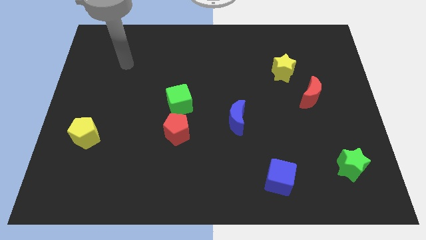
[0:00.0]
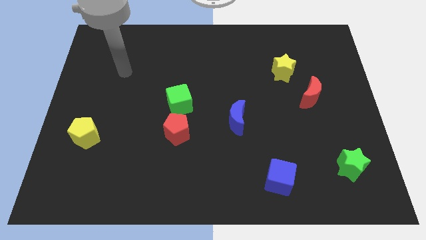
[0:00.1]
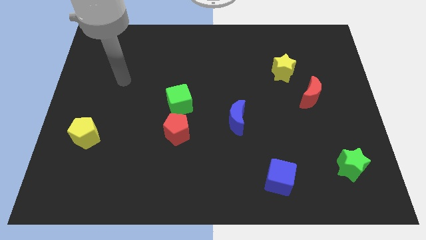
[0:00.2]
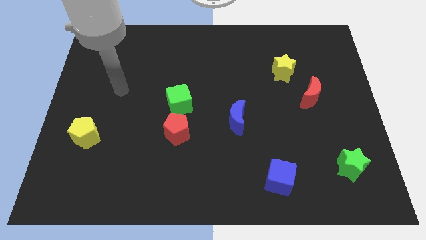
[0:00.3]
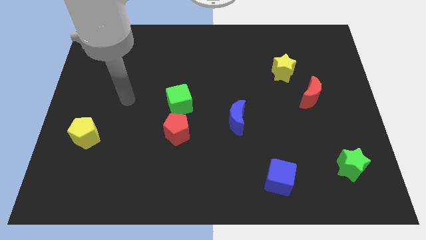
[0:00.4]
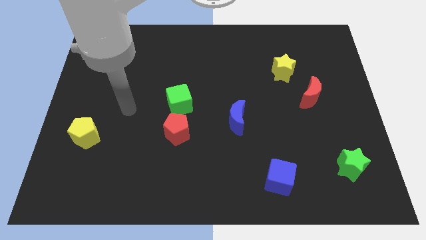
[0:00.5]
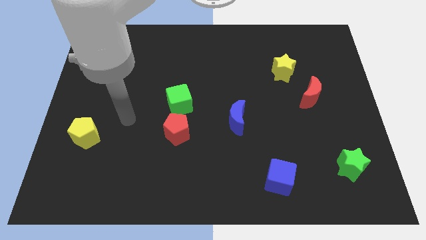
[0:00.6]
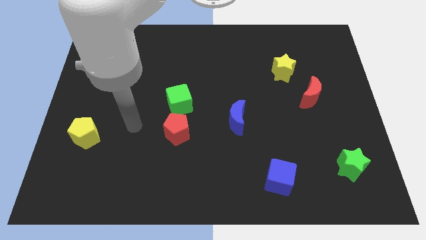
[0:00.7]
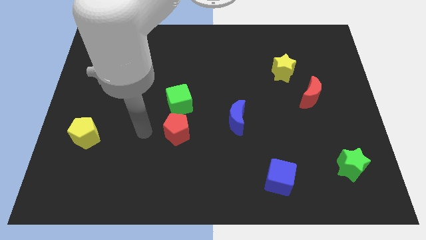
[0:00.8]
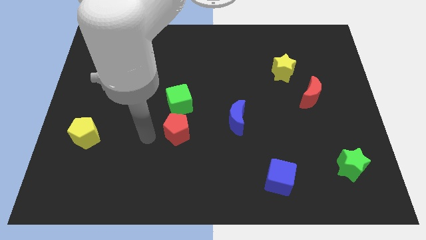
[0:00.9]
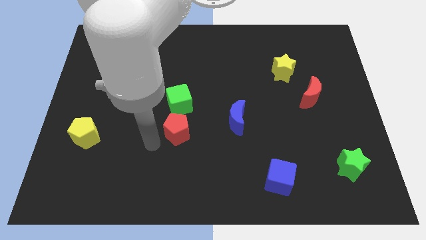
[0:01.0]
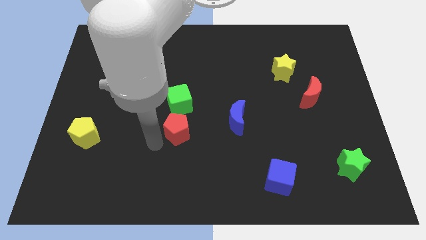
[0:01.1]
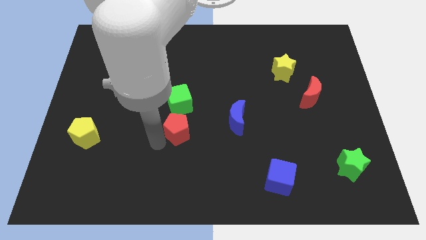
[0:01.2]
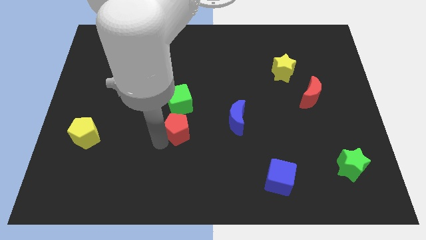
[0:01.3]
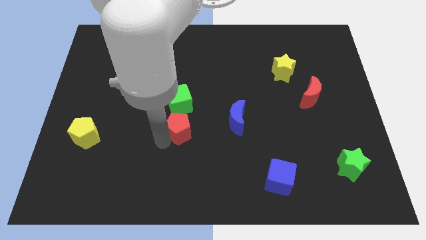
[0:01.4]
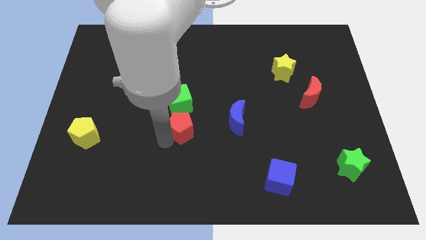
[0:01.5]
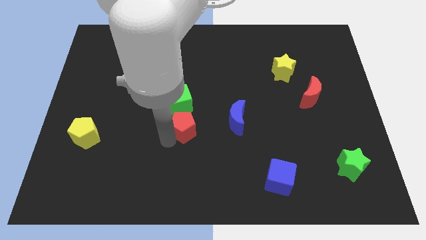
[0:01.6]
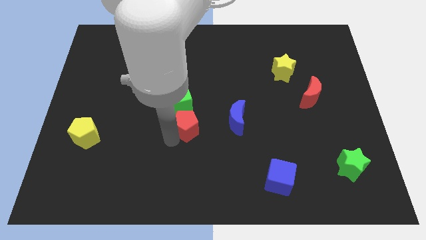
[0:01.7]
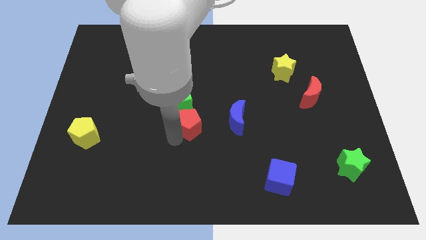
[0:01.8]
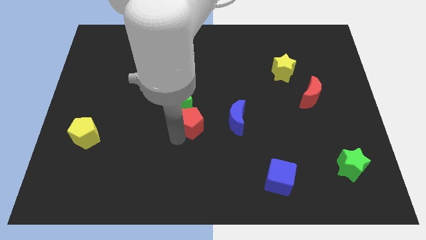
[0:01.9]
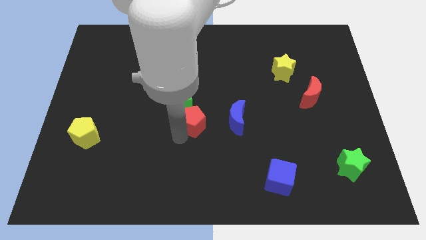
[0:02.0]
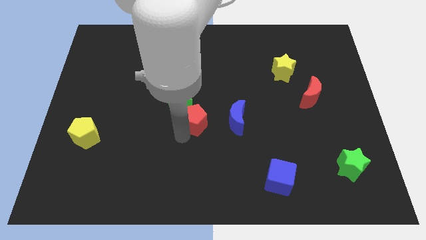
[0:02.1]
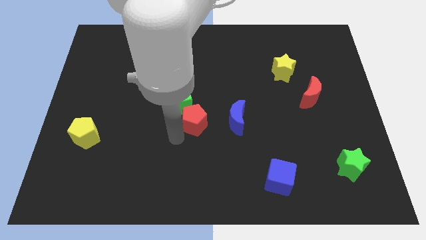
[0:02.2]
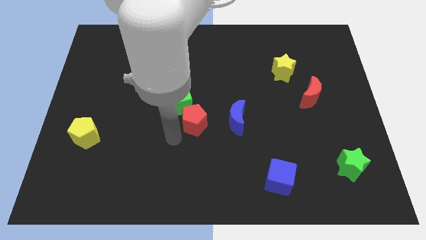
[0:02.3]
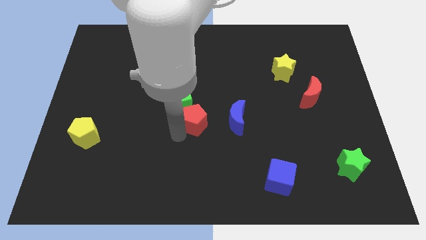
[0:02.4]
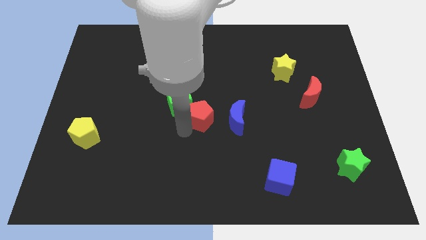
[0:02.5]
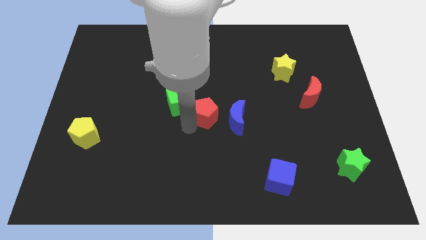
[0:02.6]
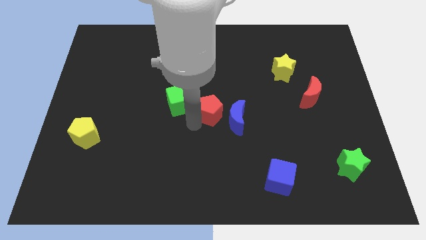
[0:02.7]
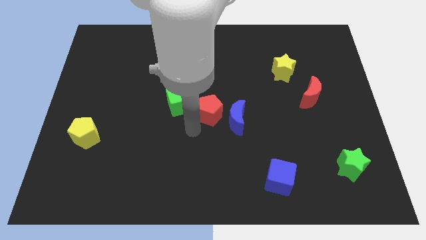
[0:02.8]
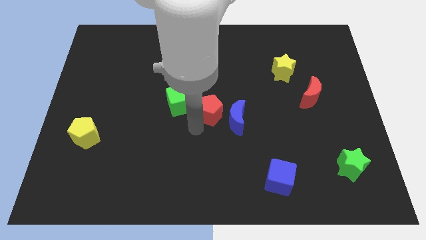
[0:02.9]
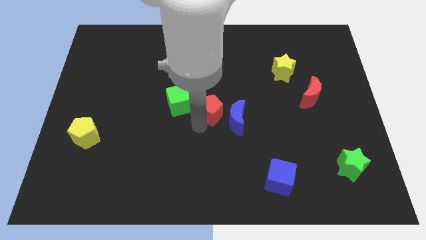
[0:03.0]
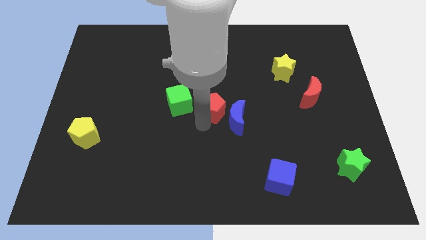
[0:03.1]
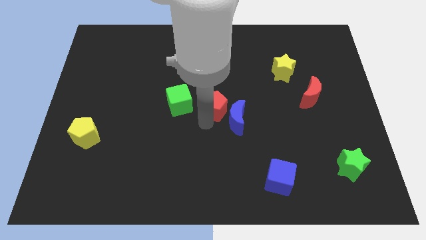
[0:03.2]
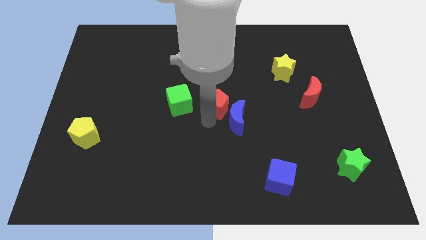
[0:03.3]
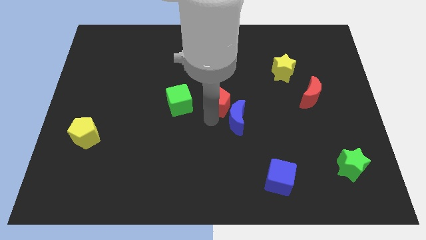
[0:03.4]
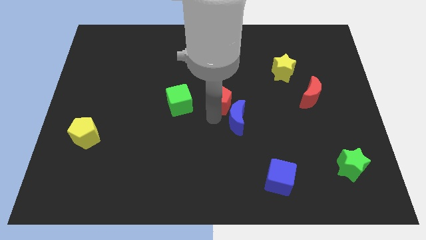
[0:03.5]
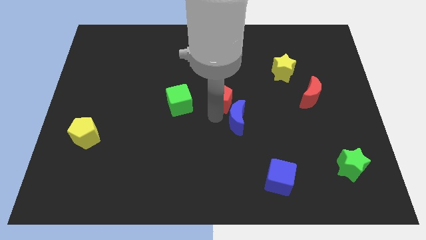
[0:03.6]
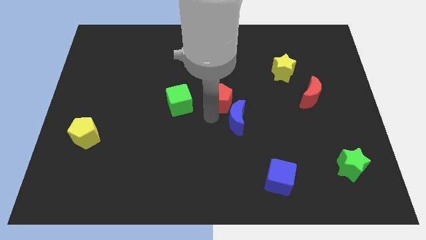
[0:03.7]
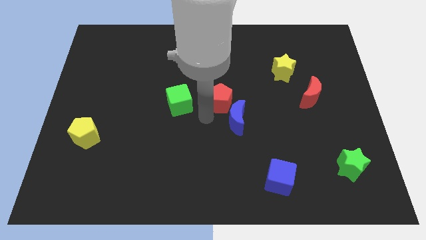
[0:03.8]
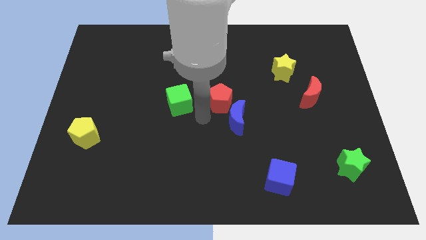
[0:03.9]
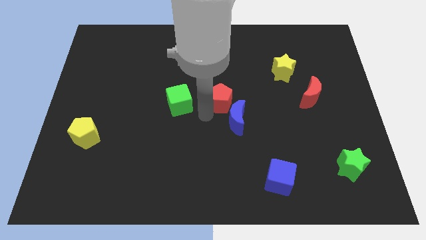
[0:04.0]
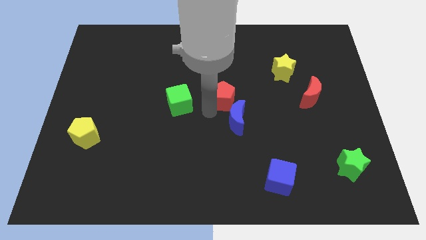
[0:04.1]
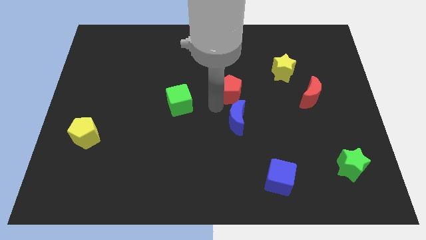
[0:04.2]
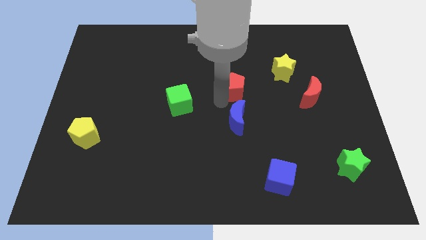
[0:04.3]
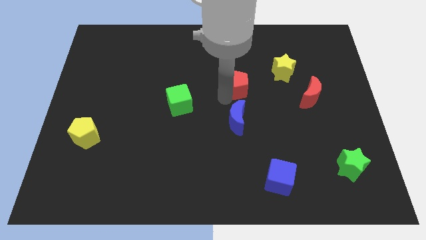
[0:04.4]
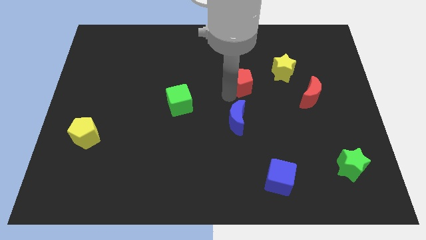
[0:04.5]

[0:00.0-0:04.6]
move the red pentagon upwards and to the right

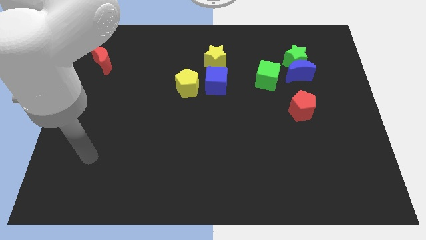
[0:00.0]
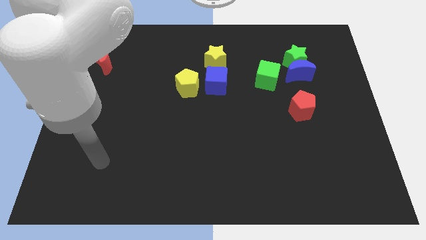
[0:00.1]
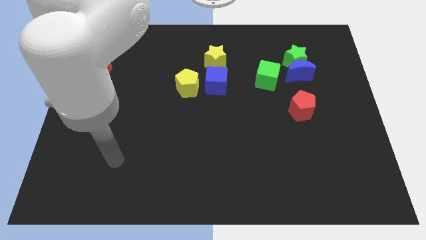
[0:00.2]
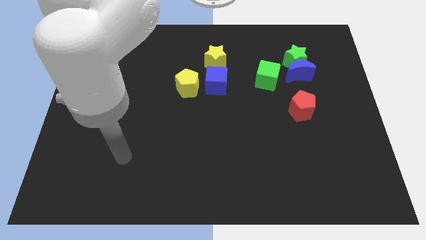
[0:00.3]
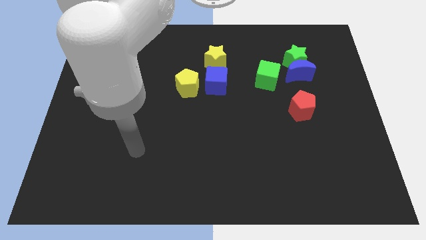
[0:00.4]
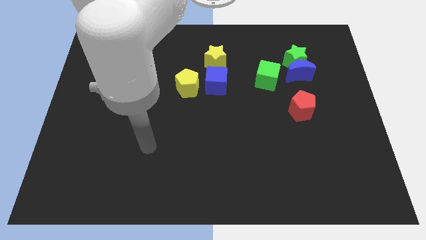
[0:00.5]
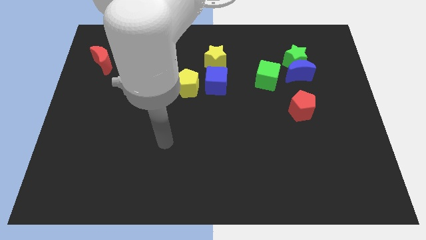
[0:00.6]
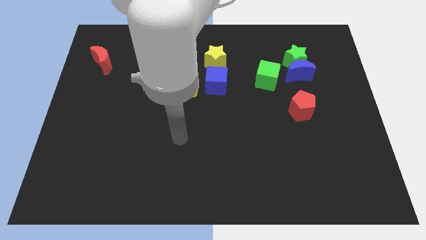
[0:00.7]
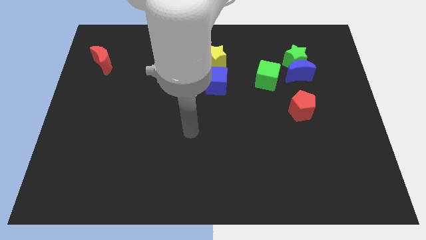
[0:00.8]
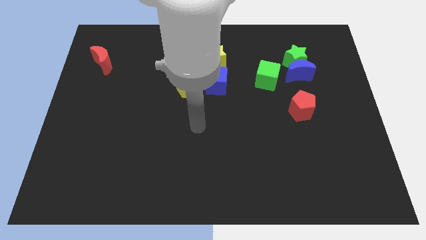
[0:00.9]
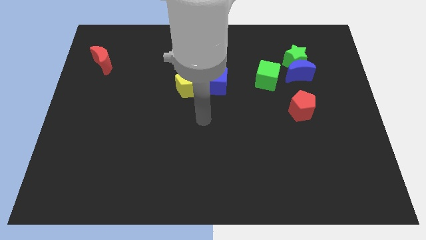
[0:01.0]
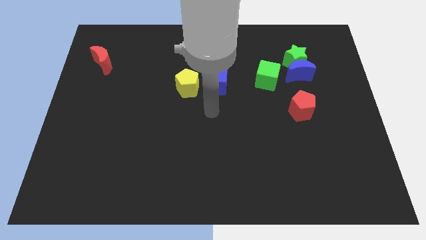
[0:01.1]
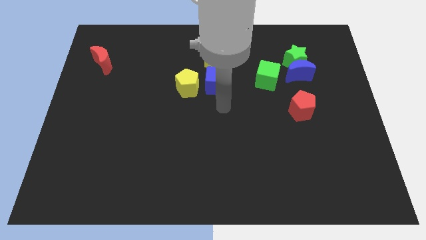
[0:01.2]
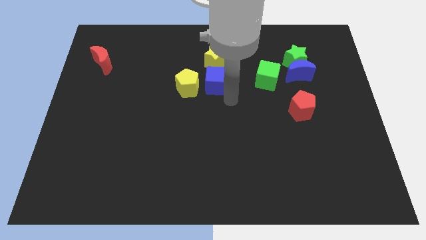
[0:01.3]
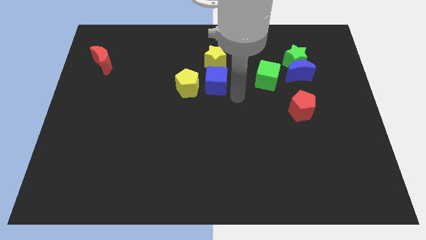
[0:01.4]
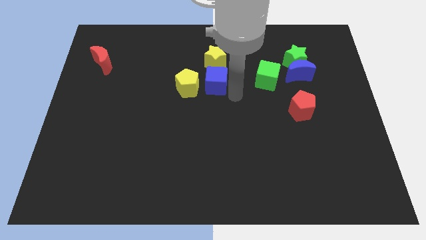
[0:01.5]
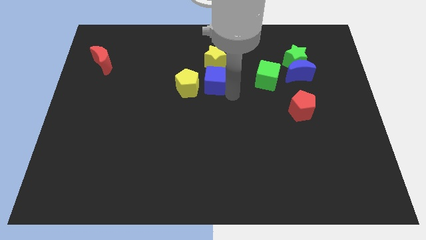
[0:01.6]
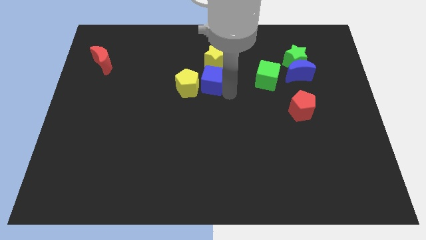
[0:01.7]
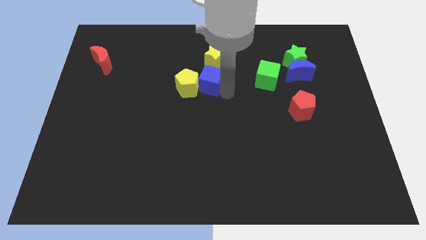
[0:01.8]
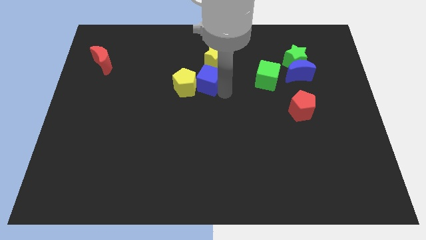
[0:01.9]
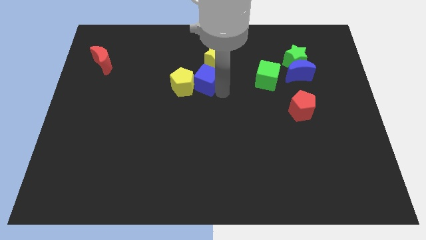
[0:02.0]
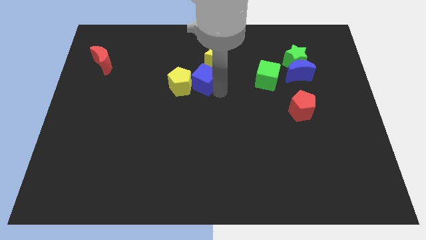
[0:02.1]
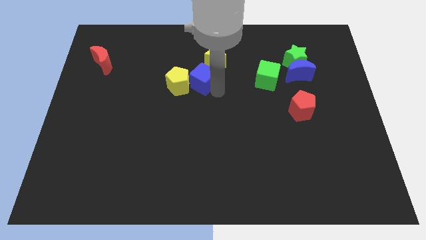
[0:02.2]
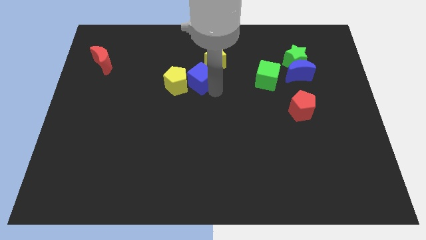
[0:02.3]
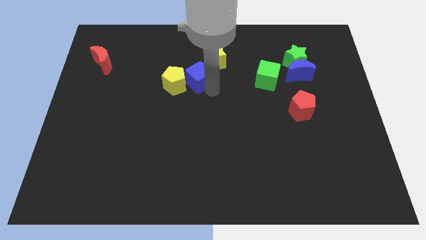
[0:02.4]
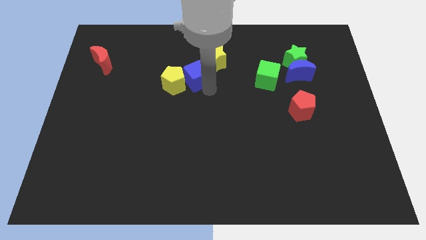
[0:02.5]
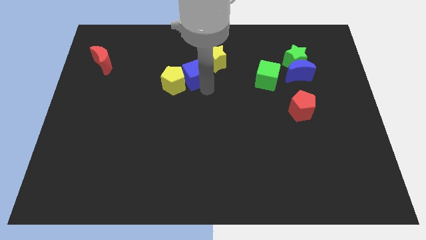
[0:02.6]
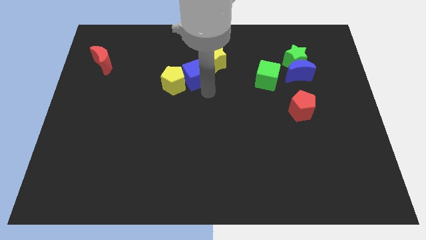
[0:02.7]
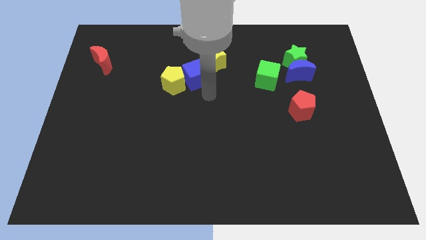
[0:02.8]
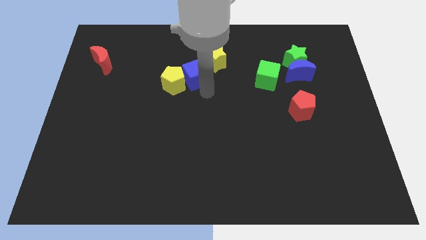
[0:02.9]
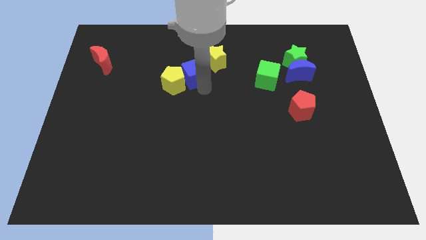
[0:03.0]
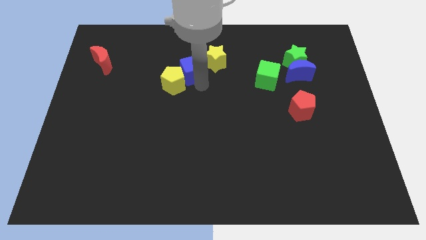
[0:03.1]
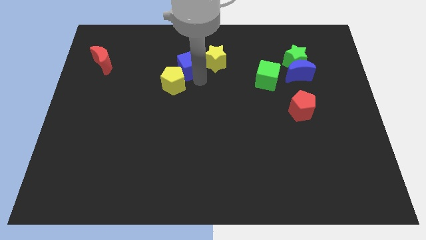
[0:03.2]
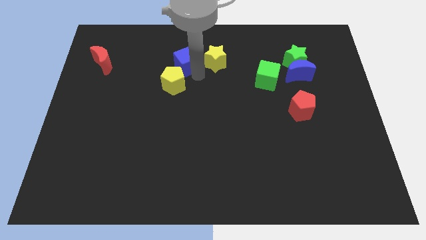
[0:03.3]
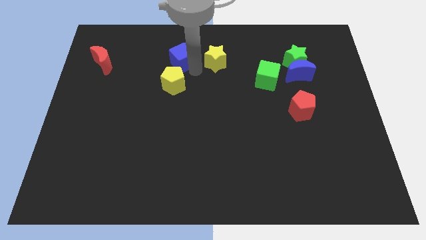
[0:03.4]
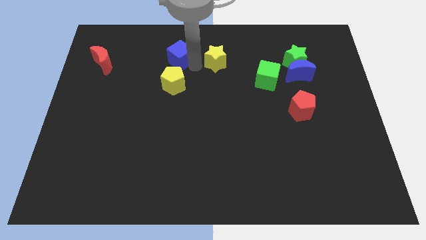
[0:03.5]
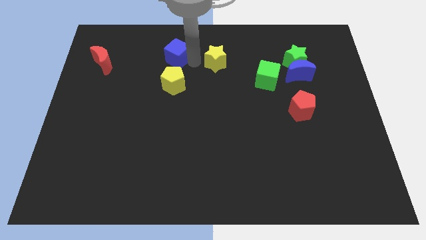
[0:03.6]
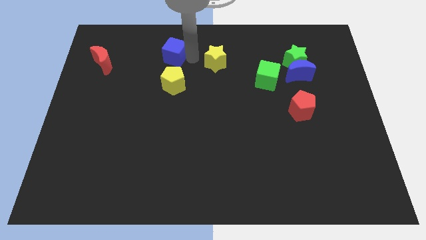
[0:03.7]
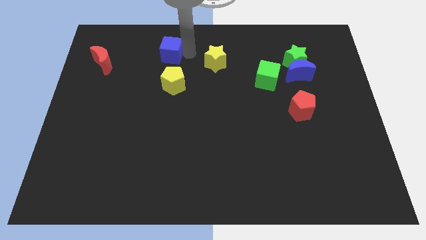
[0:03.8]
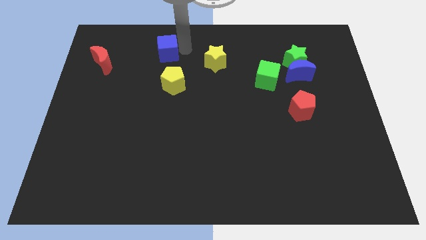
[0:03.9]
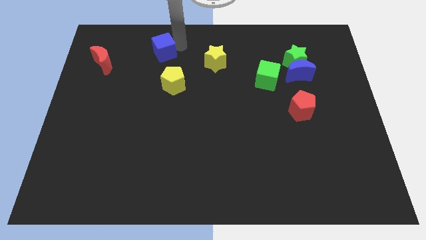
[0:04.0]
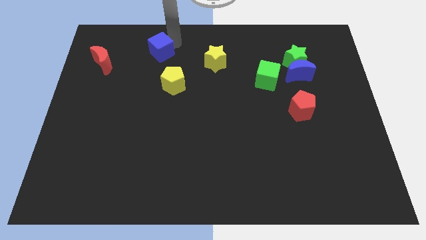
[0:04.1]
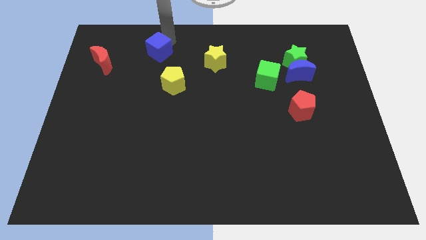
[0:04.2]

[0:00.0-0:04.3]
push the blue cube to the left slightly

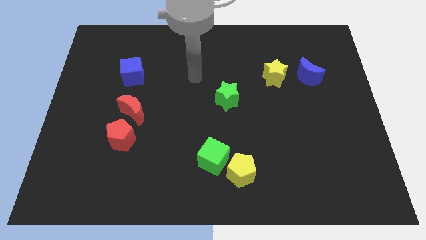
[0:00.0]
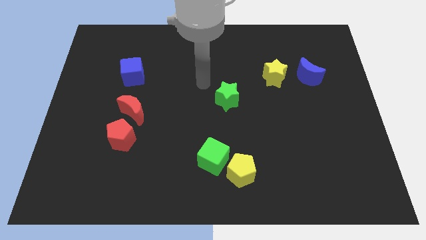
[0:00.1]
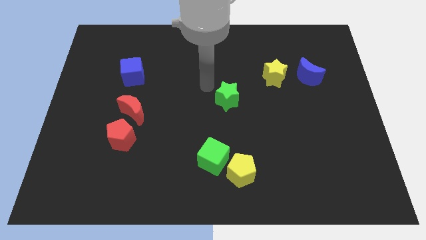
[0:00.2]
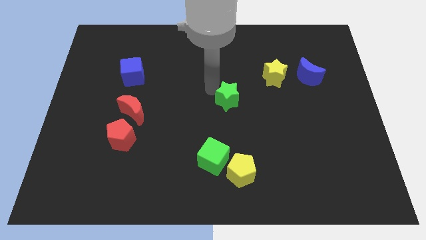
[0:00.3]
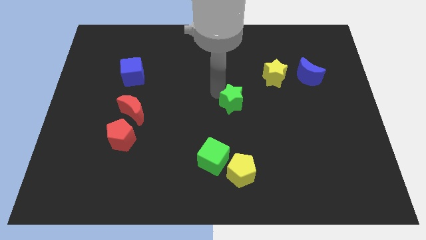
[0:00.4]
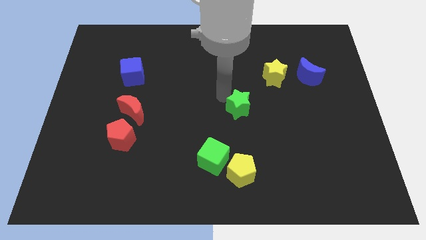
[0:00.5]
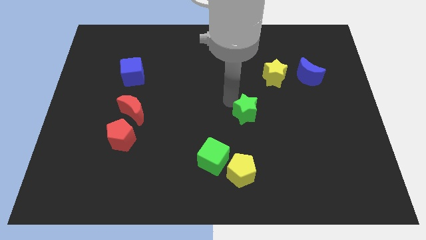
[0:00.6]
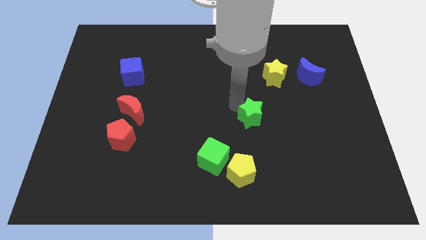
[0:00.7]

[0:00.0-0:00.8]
move the green star a little bit downwards and then right
